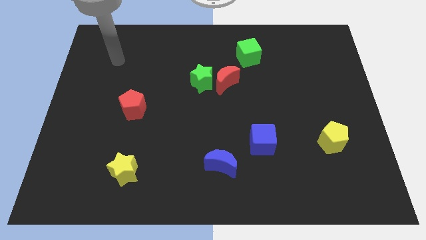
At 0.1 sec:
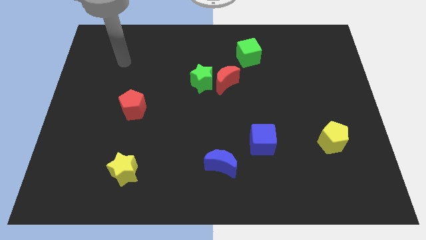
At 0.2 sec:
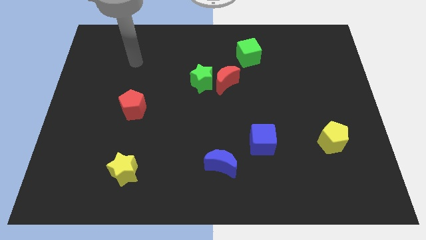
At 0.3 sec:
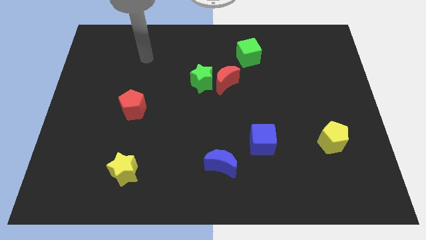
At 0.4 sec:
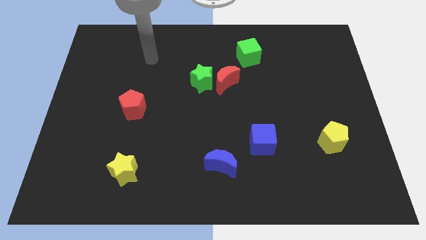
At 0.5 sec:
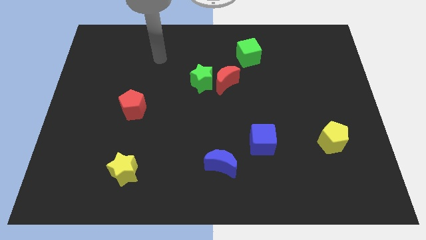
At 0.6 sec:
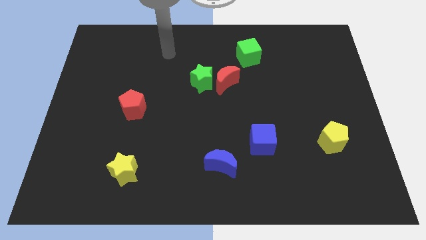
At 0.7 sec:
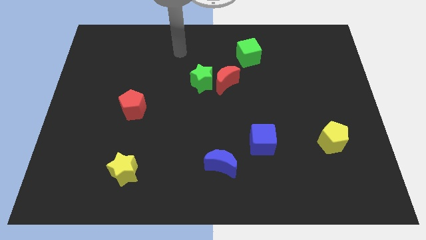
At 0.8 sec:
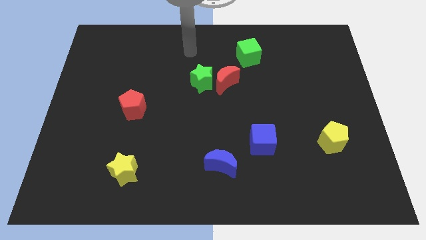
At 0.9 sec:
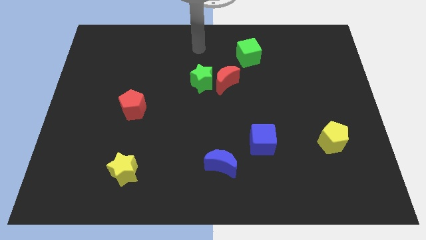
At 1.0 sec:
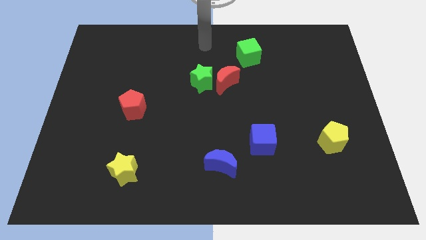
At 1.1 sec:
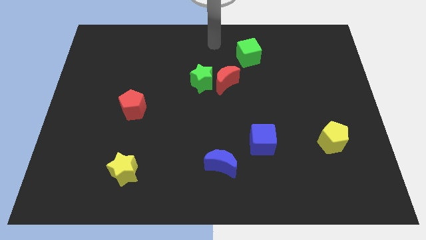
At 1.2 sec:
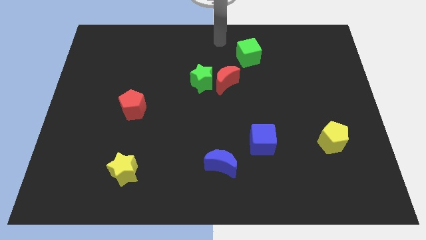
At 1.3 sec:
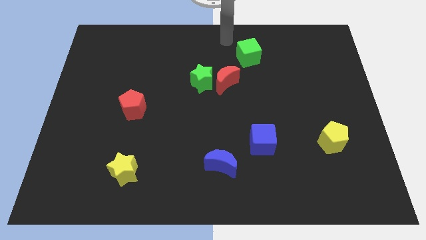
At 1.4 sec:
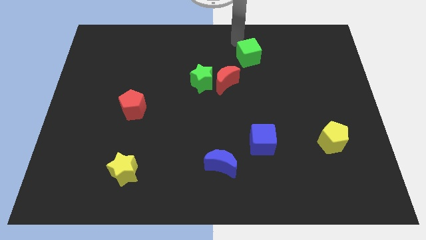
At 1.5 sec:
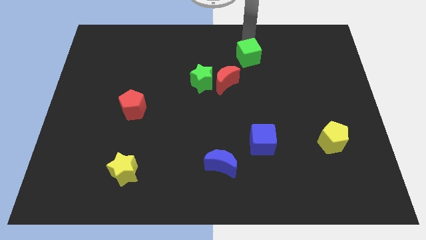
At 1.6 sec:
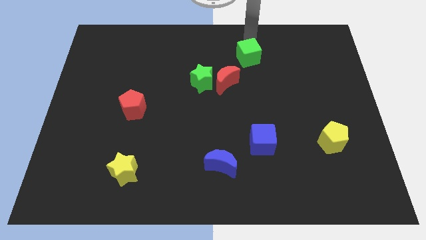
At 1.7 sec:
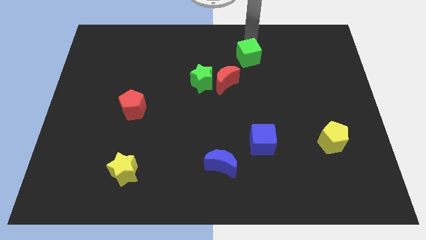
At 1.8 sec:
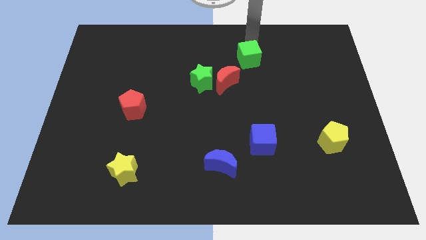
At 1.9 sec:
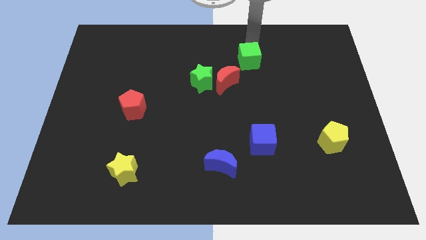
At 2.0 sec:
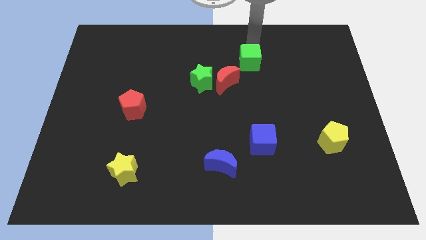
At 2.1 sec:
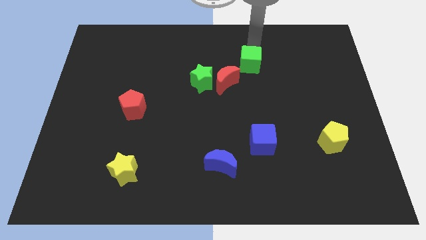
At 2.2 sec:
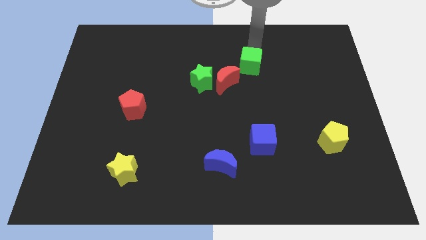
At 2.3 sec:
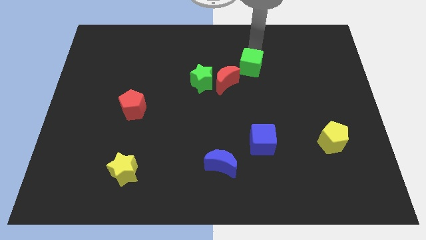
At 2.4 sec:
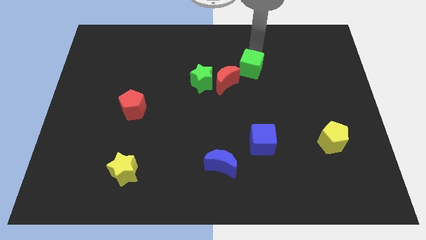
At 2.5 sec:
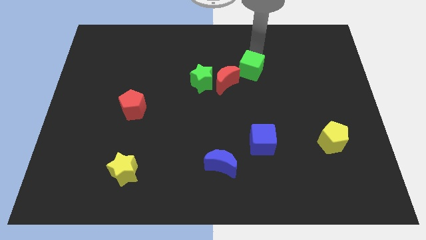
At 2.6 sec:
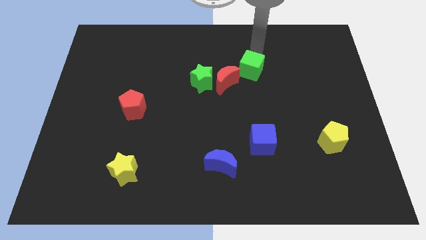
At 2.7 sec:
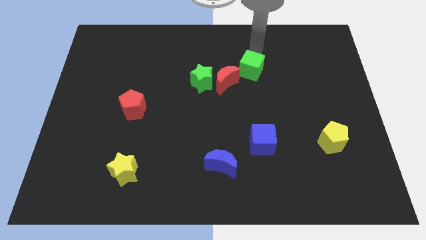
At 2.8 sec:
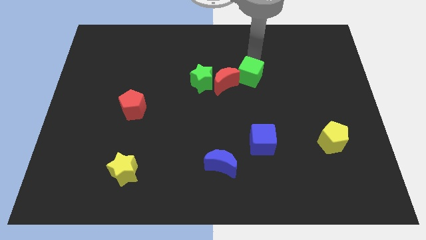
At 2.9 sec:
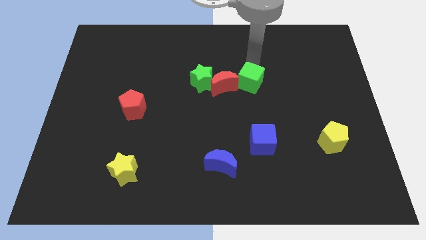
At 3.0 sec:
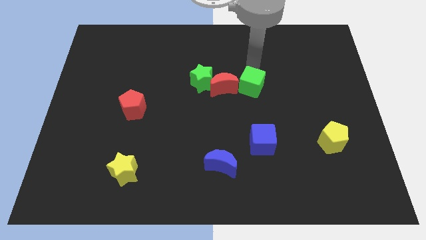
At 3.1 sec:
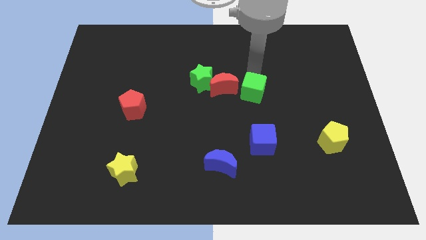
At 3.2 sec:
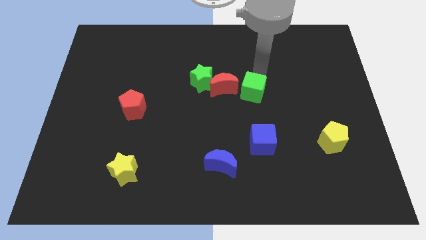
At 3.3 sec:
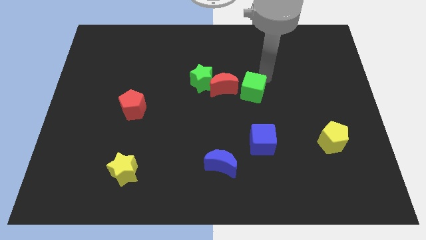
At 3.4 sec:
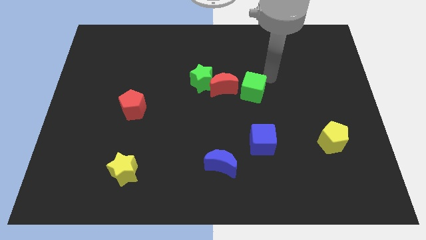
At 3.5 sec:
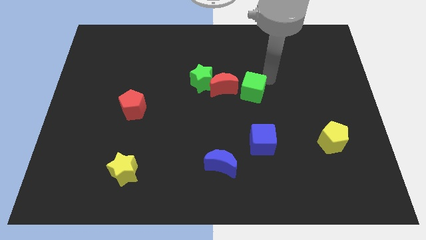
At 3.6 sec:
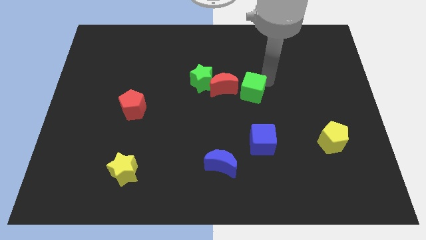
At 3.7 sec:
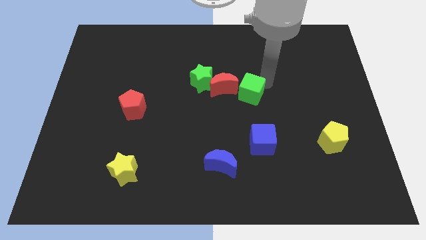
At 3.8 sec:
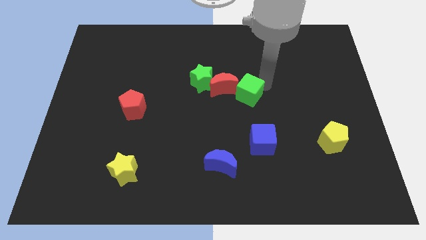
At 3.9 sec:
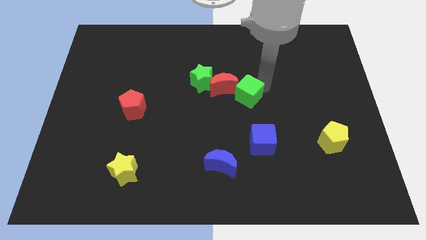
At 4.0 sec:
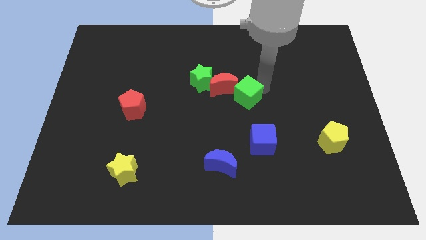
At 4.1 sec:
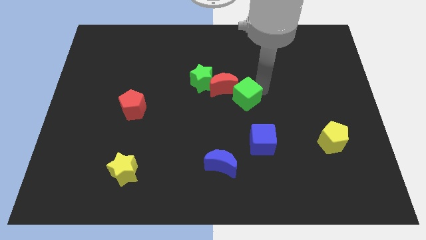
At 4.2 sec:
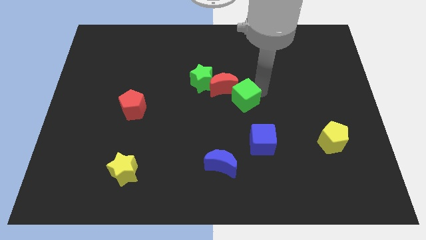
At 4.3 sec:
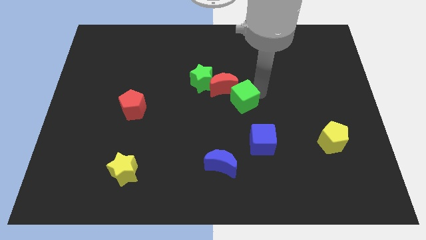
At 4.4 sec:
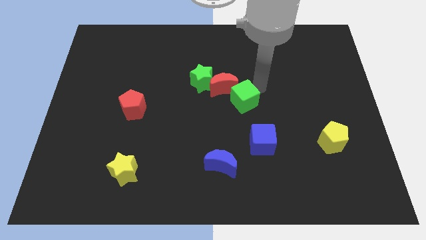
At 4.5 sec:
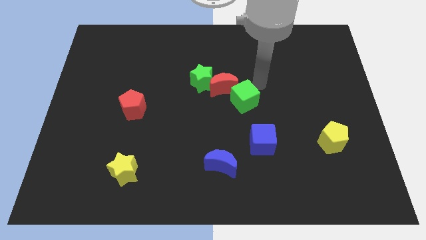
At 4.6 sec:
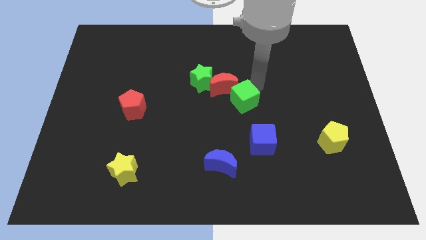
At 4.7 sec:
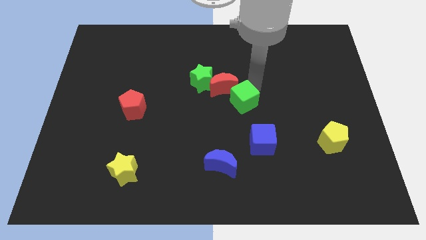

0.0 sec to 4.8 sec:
move the green cube to the bottom of the red moon

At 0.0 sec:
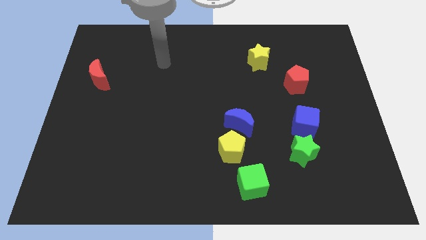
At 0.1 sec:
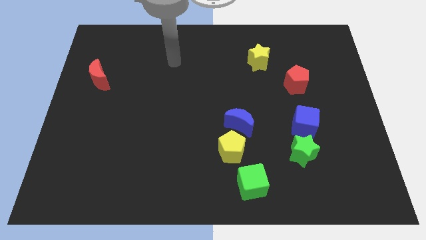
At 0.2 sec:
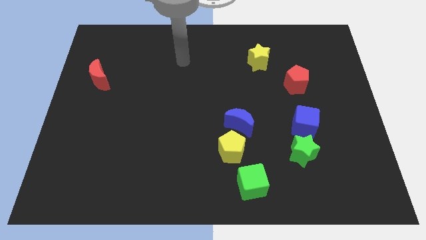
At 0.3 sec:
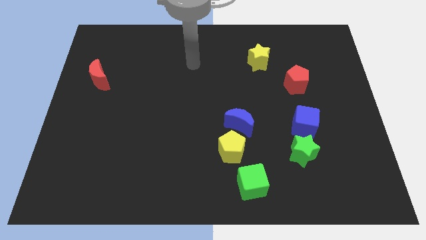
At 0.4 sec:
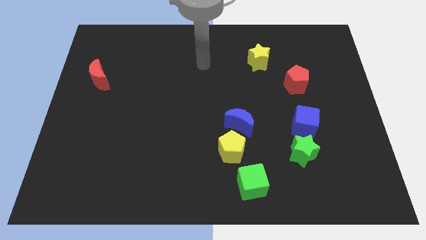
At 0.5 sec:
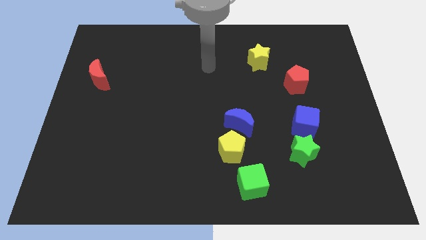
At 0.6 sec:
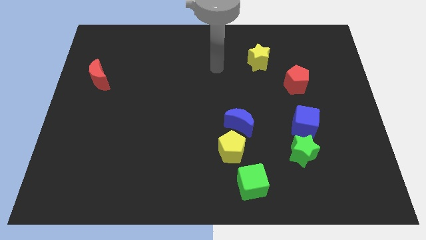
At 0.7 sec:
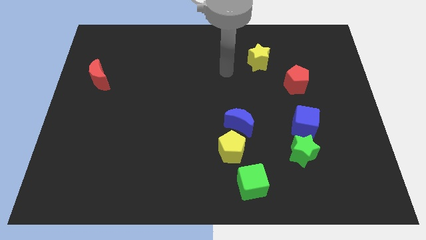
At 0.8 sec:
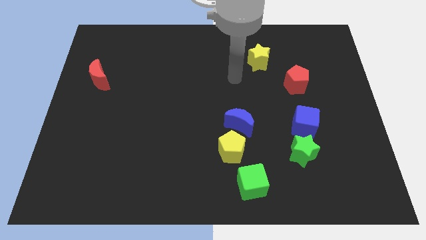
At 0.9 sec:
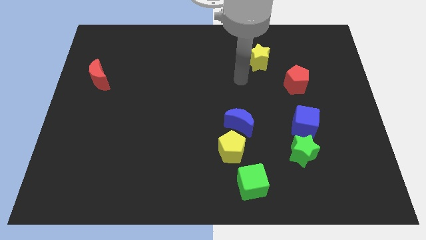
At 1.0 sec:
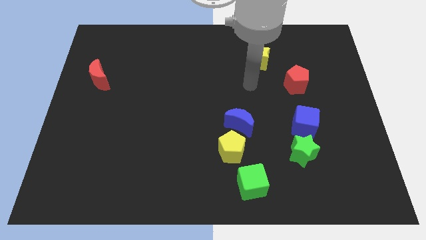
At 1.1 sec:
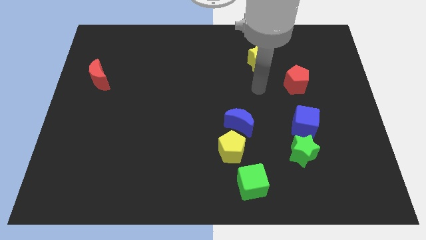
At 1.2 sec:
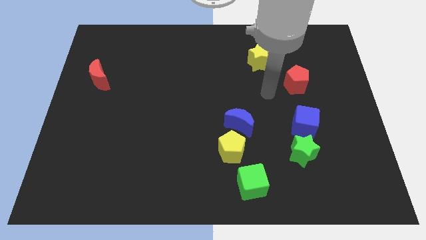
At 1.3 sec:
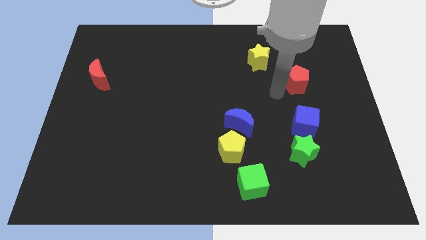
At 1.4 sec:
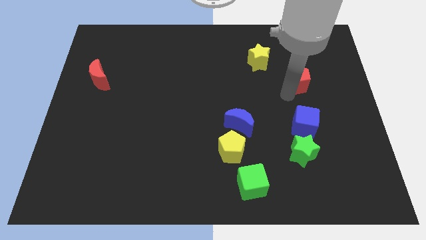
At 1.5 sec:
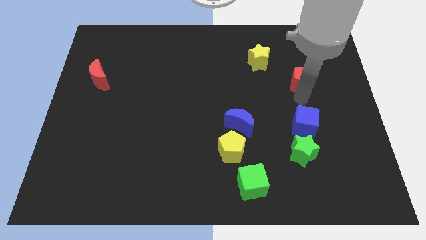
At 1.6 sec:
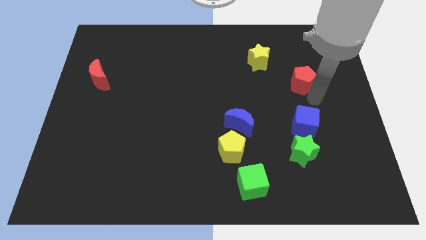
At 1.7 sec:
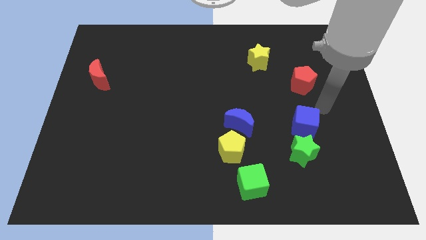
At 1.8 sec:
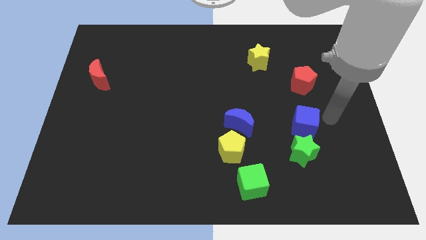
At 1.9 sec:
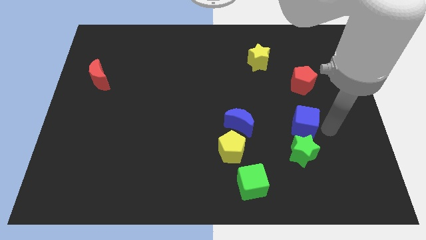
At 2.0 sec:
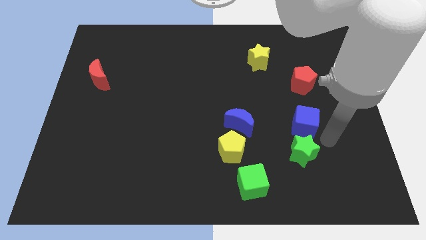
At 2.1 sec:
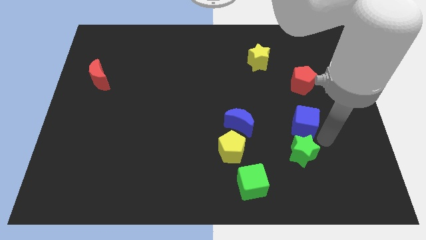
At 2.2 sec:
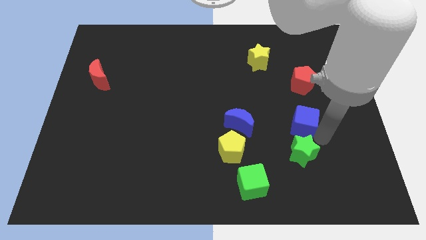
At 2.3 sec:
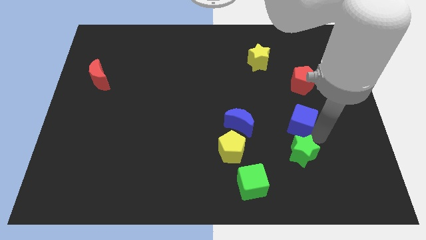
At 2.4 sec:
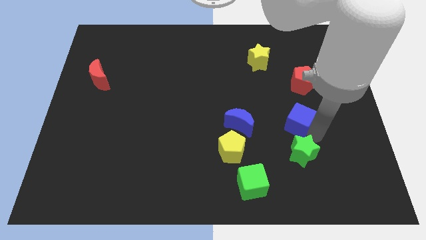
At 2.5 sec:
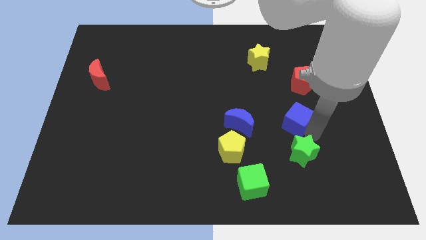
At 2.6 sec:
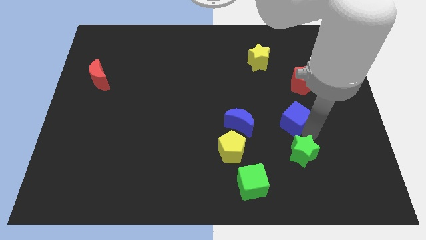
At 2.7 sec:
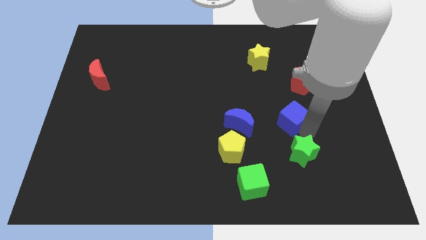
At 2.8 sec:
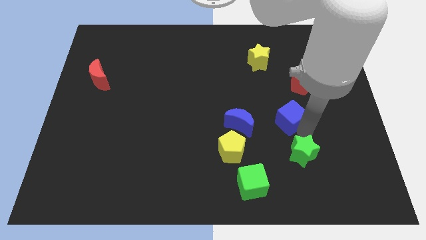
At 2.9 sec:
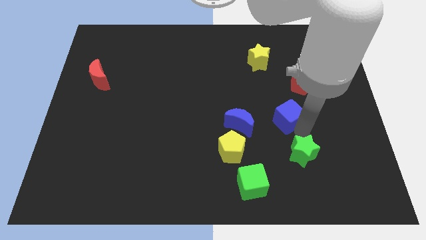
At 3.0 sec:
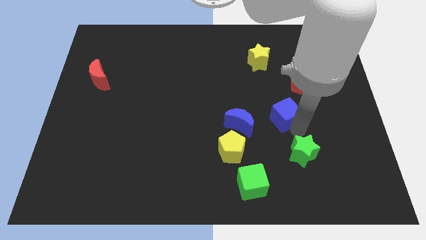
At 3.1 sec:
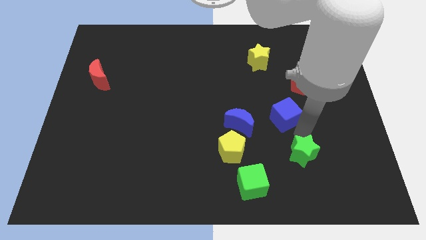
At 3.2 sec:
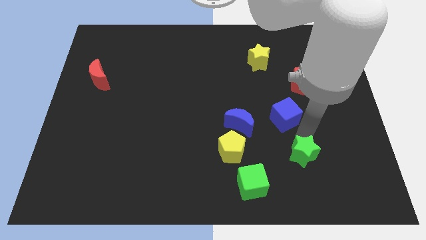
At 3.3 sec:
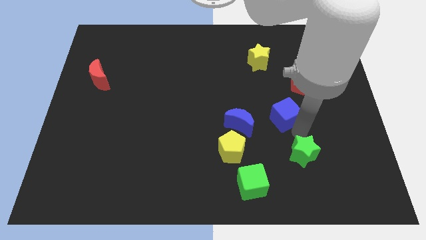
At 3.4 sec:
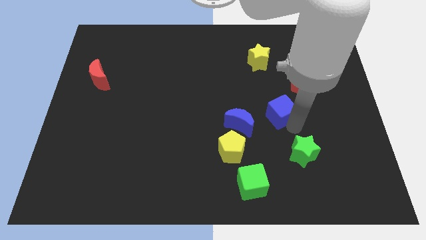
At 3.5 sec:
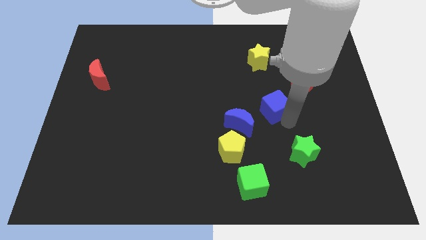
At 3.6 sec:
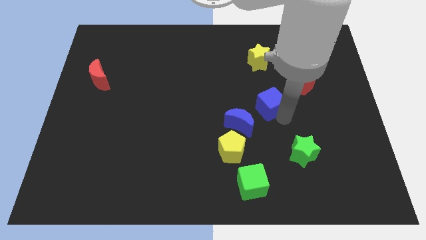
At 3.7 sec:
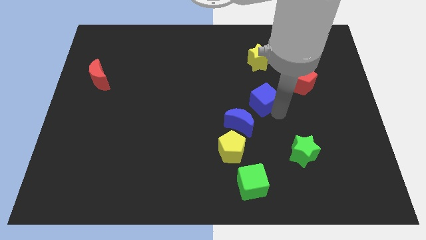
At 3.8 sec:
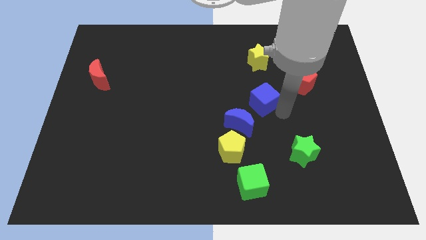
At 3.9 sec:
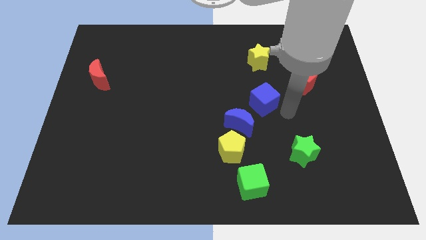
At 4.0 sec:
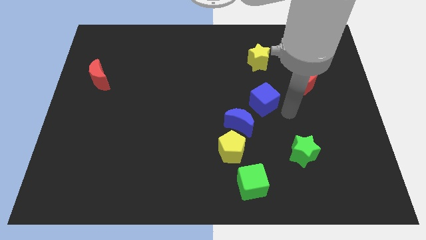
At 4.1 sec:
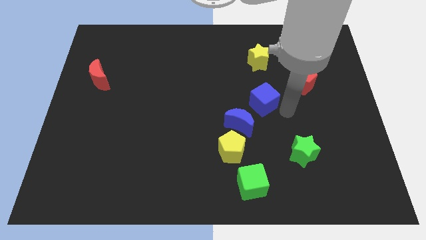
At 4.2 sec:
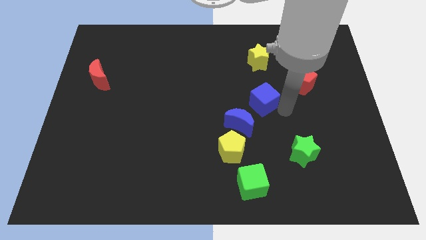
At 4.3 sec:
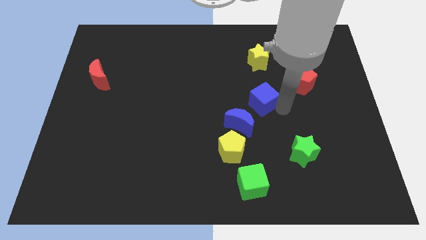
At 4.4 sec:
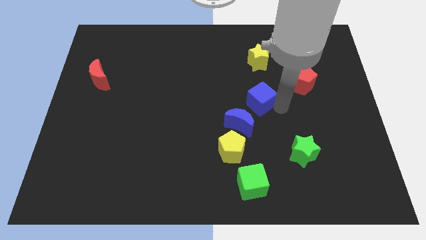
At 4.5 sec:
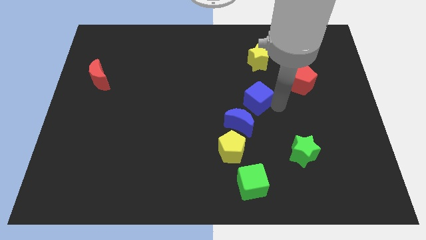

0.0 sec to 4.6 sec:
put the blue cube to the top of the blue moon
